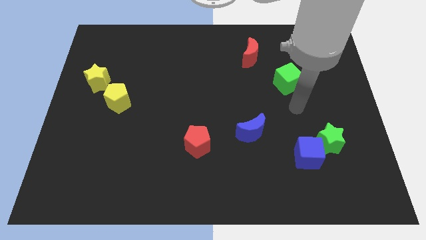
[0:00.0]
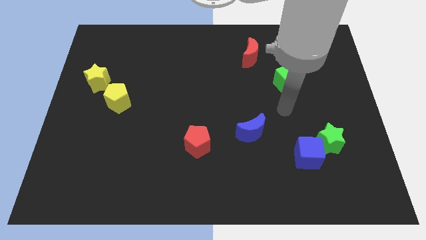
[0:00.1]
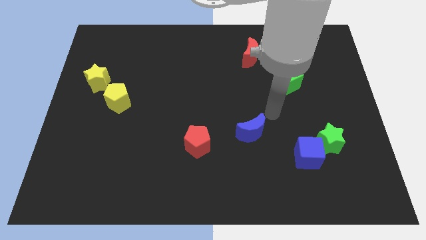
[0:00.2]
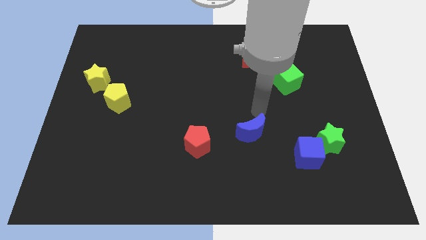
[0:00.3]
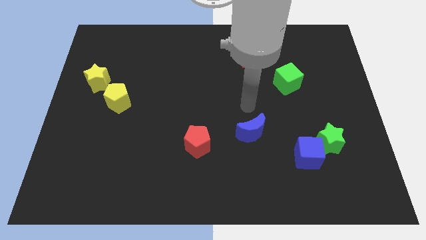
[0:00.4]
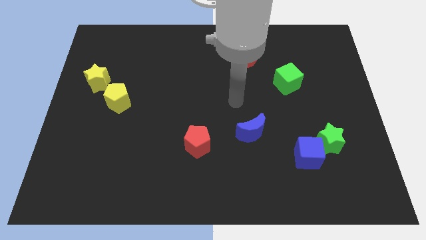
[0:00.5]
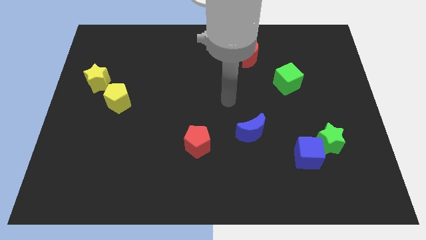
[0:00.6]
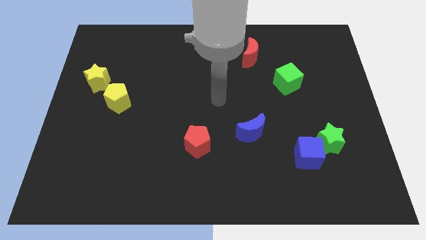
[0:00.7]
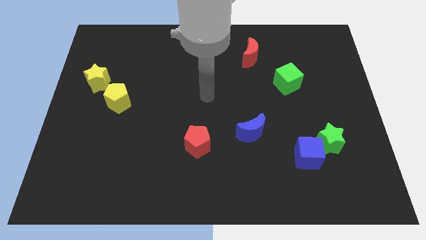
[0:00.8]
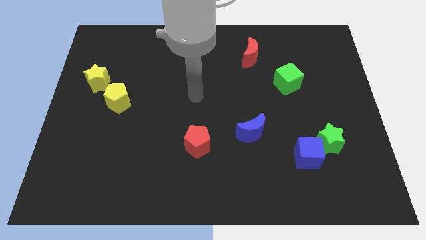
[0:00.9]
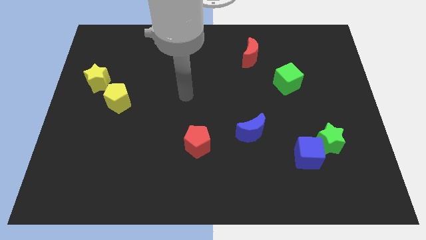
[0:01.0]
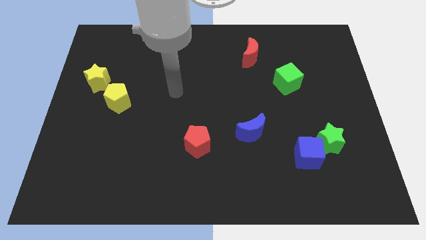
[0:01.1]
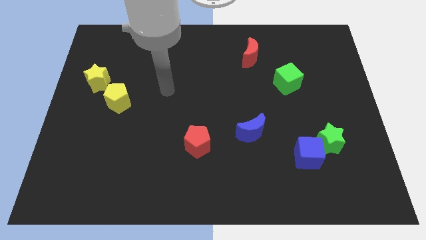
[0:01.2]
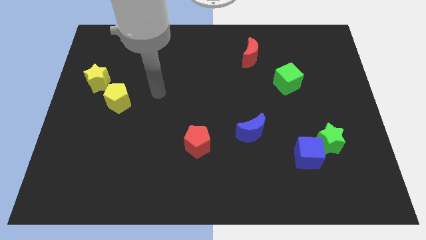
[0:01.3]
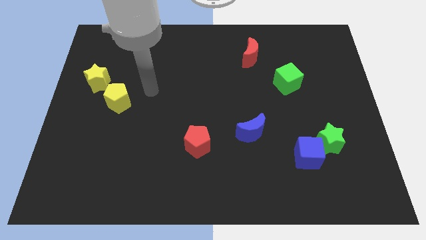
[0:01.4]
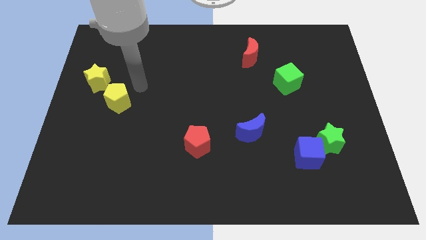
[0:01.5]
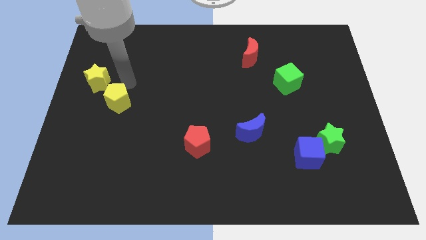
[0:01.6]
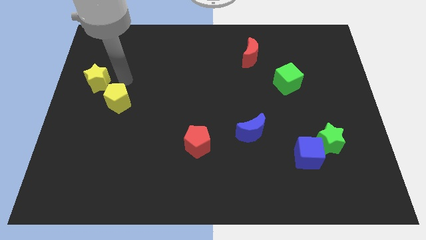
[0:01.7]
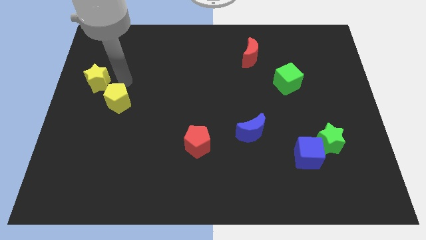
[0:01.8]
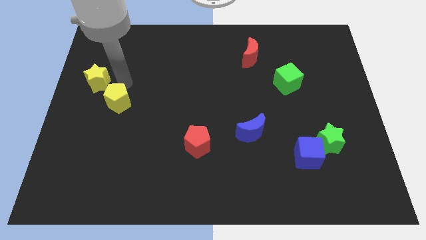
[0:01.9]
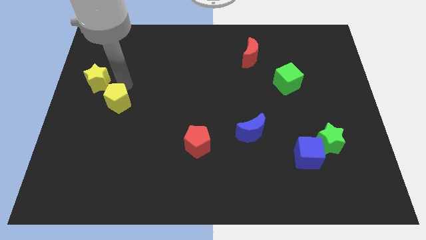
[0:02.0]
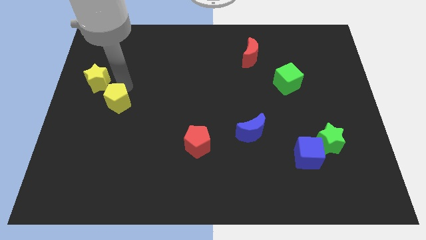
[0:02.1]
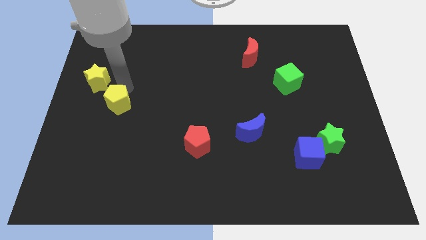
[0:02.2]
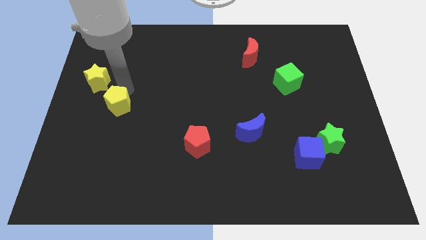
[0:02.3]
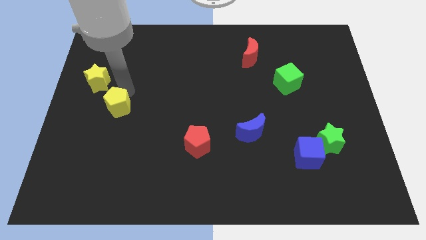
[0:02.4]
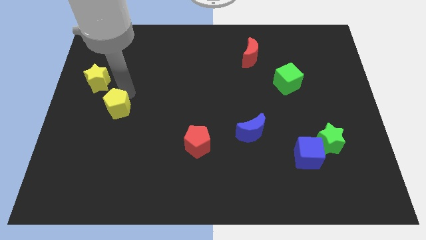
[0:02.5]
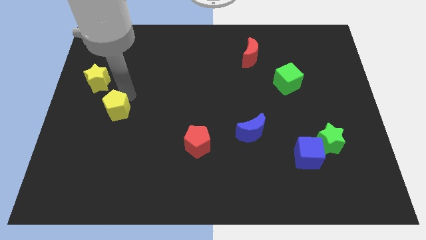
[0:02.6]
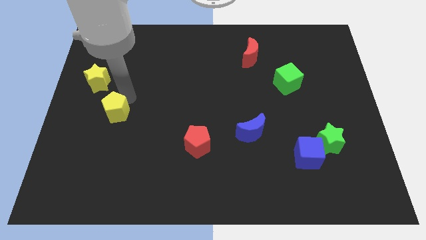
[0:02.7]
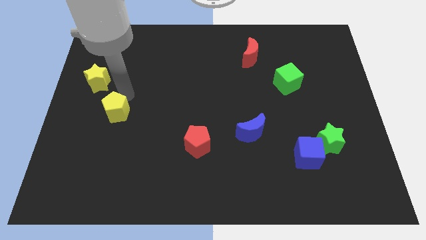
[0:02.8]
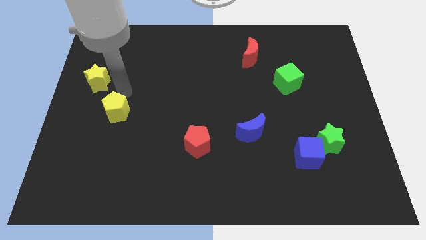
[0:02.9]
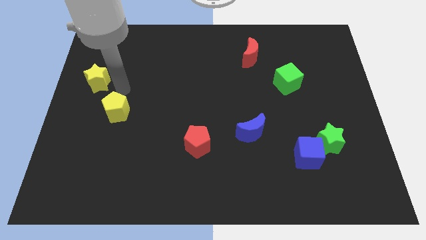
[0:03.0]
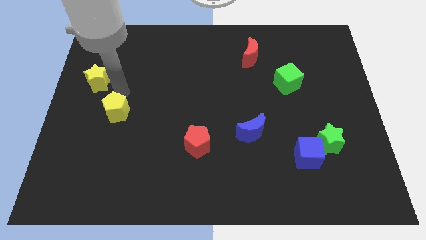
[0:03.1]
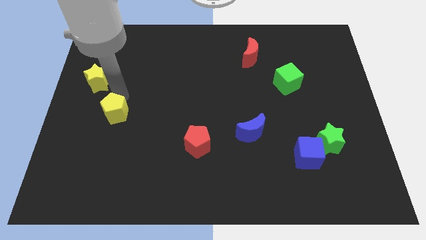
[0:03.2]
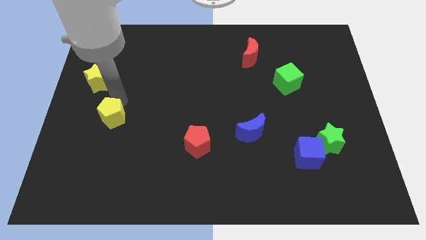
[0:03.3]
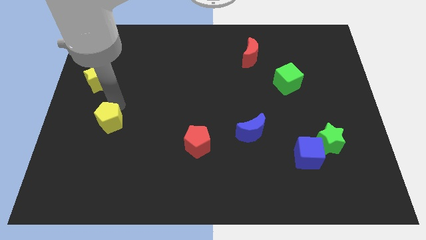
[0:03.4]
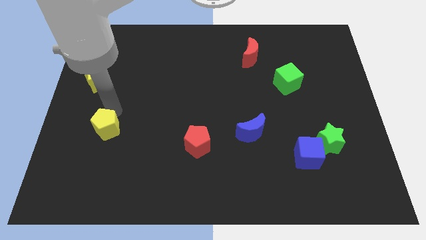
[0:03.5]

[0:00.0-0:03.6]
slightly push the yellow pentagon downwards

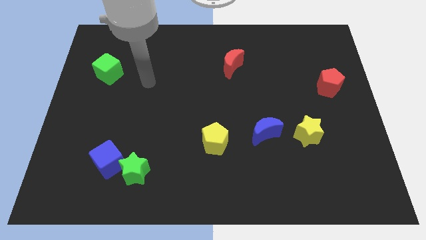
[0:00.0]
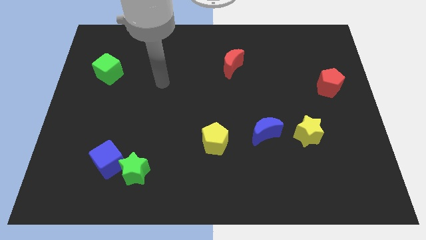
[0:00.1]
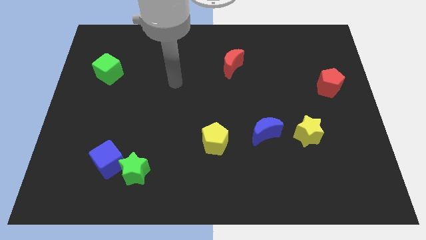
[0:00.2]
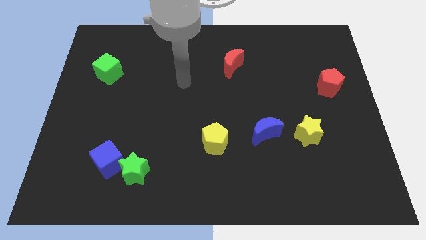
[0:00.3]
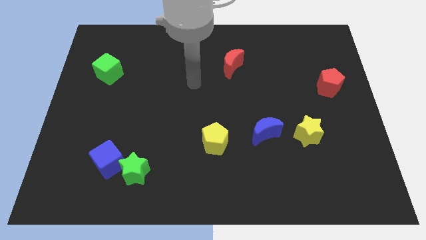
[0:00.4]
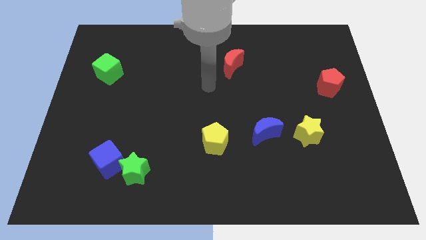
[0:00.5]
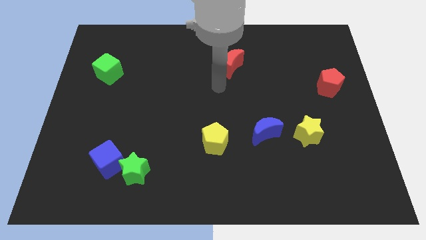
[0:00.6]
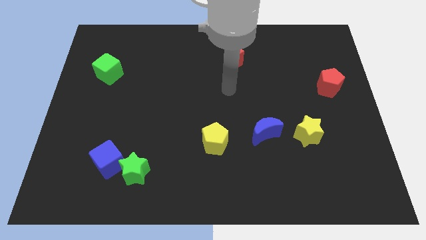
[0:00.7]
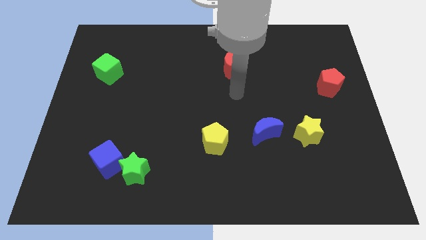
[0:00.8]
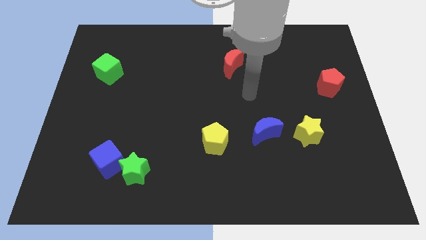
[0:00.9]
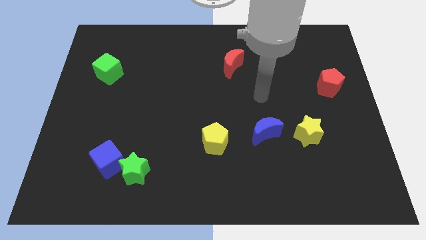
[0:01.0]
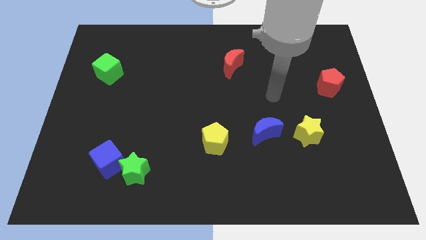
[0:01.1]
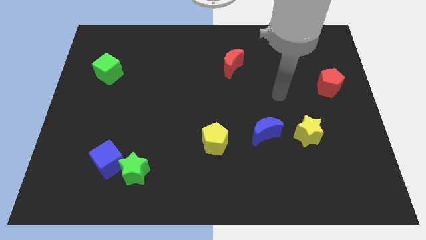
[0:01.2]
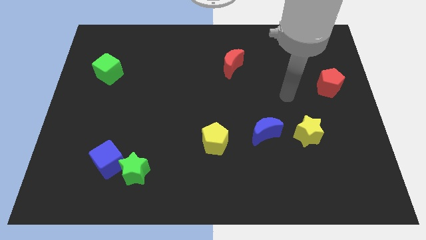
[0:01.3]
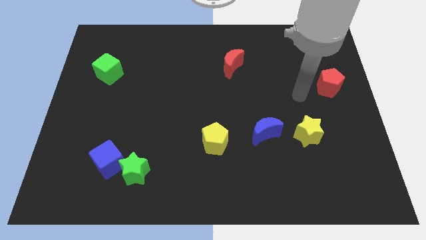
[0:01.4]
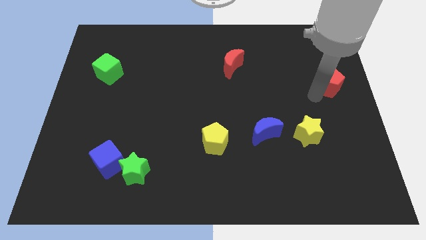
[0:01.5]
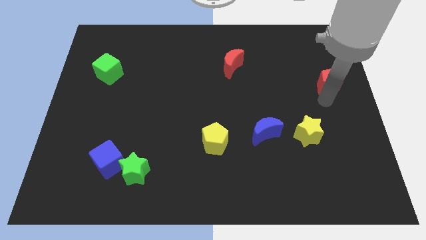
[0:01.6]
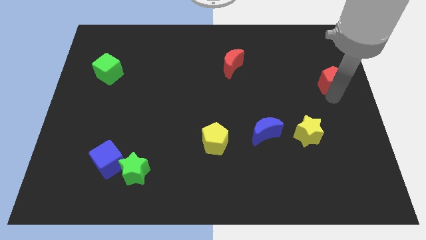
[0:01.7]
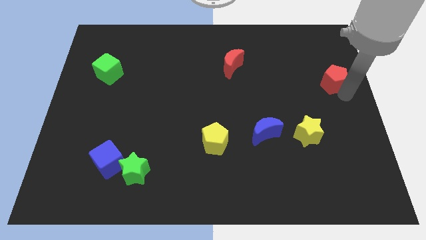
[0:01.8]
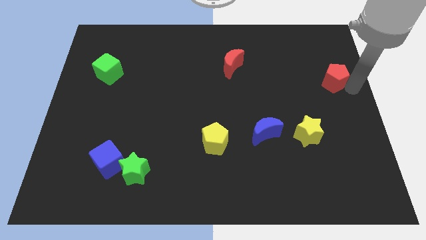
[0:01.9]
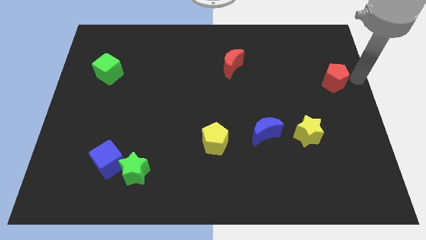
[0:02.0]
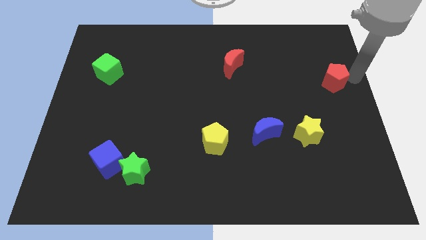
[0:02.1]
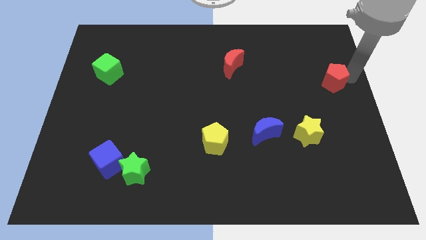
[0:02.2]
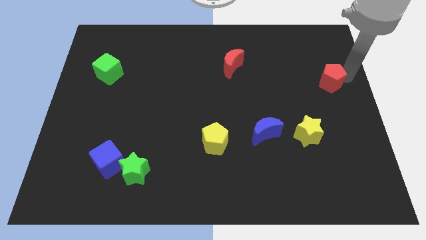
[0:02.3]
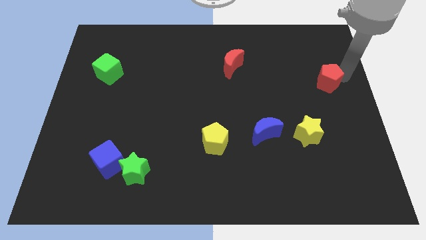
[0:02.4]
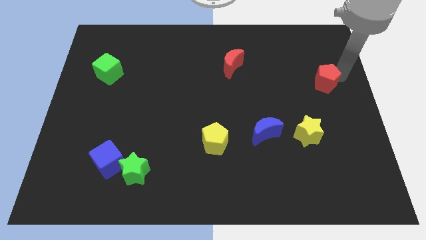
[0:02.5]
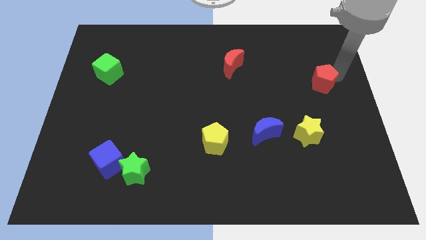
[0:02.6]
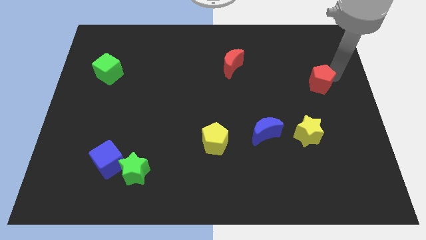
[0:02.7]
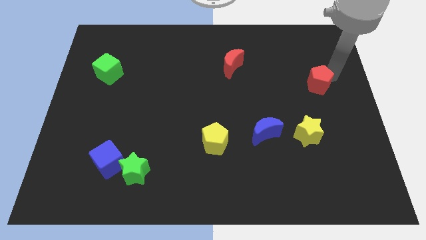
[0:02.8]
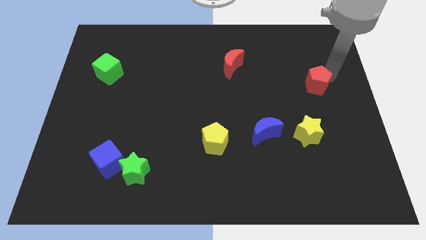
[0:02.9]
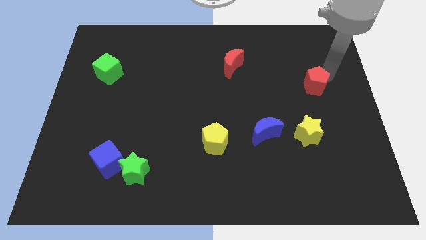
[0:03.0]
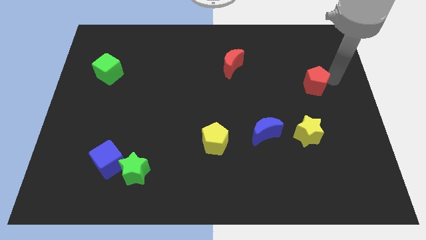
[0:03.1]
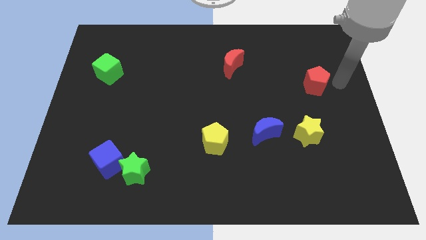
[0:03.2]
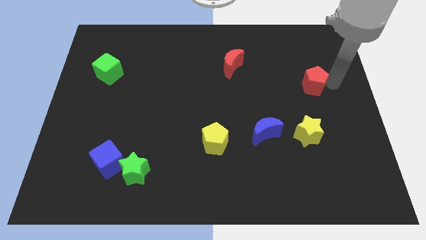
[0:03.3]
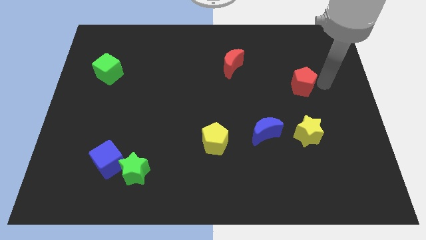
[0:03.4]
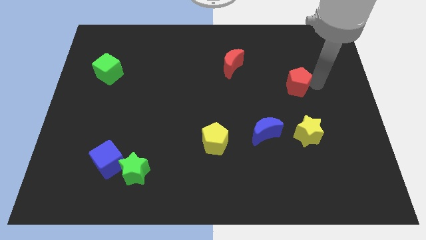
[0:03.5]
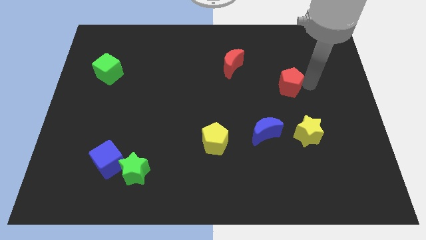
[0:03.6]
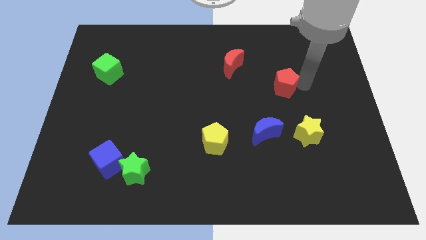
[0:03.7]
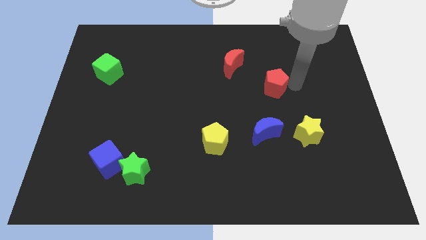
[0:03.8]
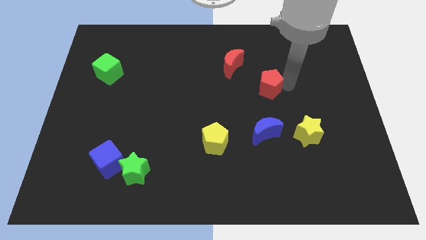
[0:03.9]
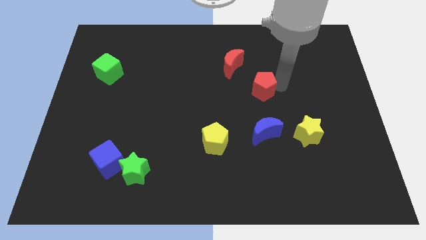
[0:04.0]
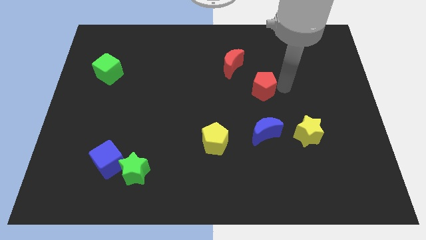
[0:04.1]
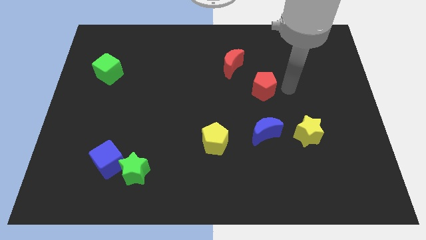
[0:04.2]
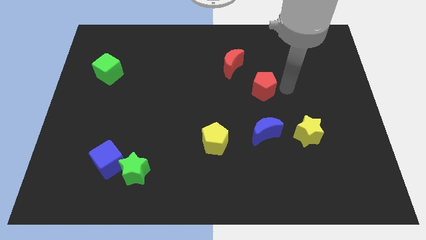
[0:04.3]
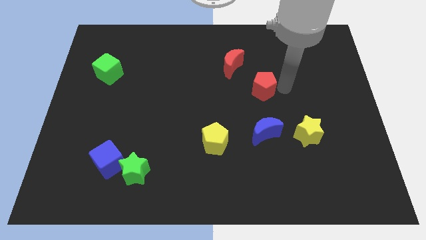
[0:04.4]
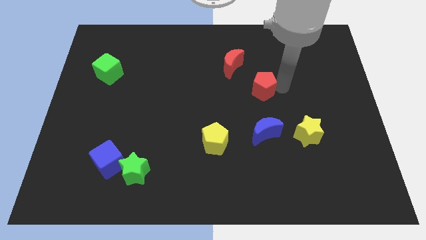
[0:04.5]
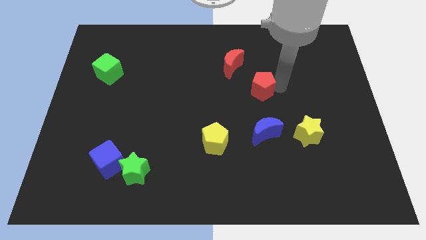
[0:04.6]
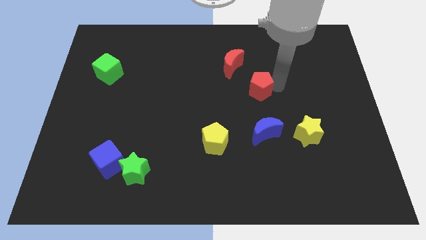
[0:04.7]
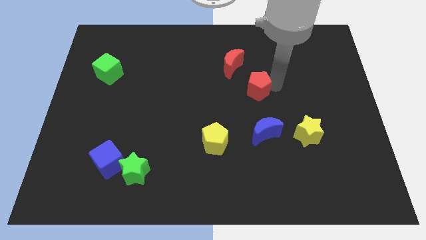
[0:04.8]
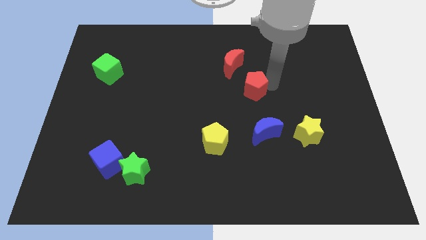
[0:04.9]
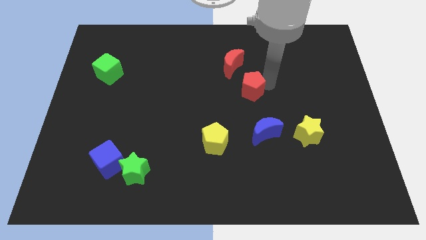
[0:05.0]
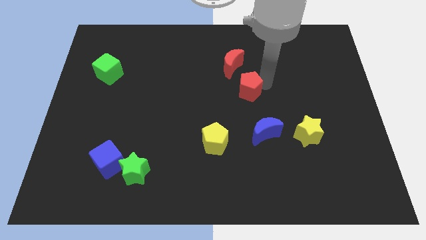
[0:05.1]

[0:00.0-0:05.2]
move the red pentagon to the left
